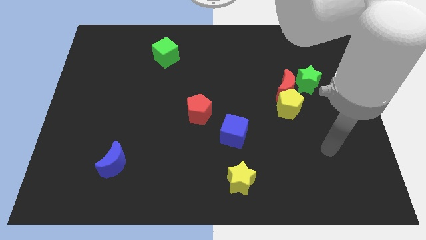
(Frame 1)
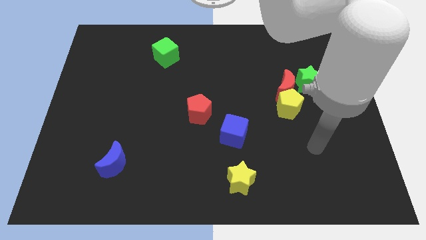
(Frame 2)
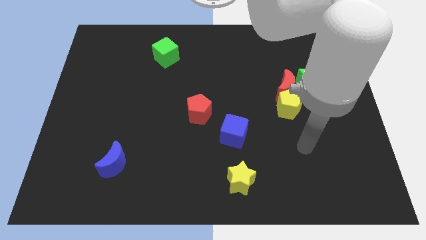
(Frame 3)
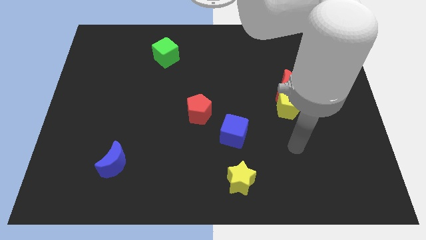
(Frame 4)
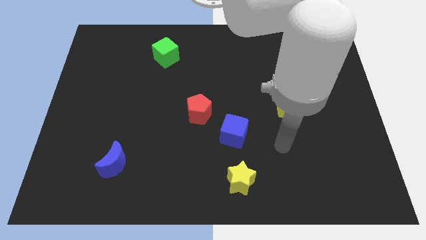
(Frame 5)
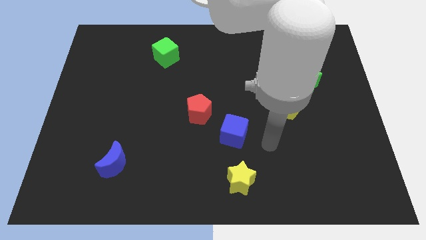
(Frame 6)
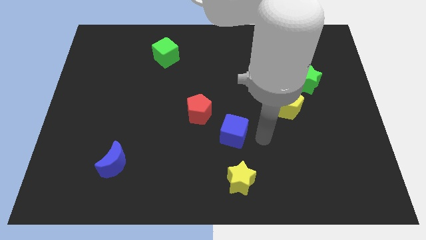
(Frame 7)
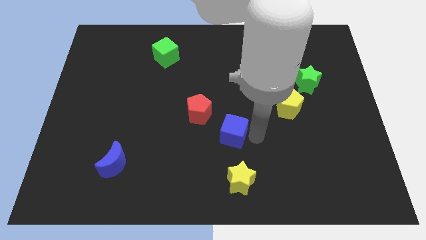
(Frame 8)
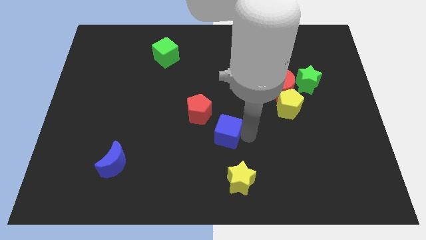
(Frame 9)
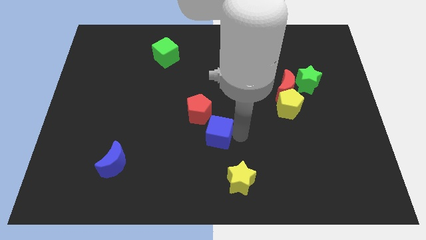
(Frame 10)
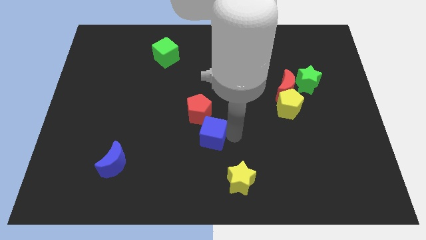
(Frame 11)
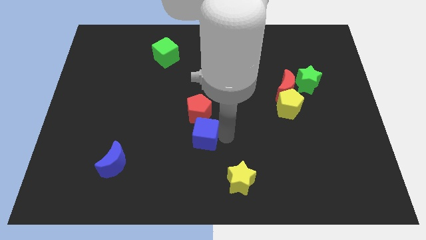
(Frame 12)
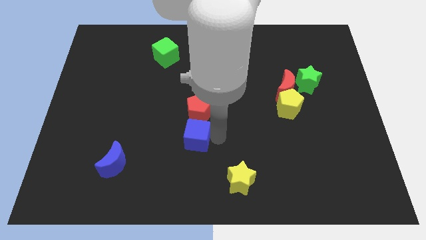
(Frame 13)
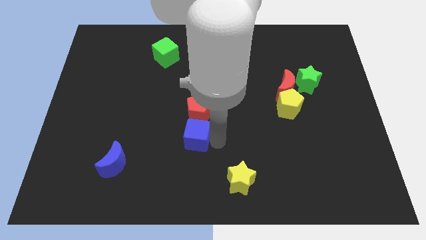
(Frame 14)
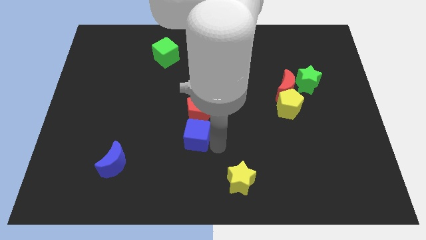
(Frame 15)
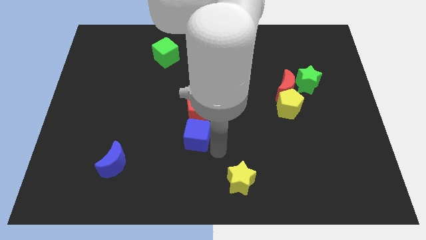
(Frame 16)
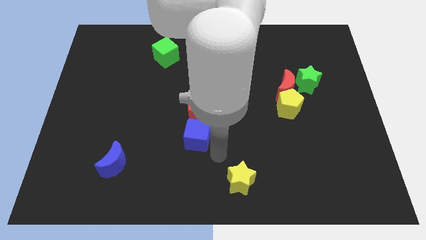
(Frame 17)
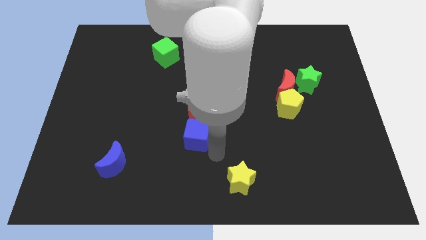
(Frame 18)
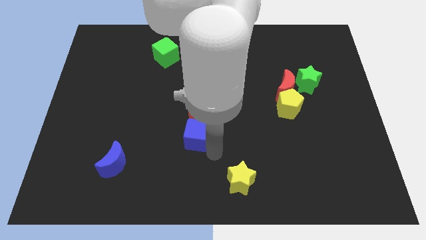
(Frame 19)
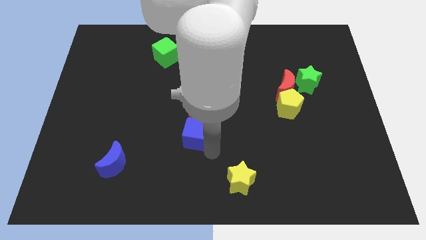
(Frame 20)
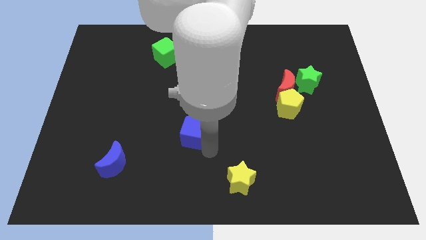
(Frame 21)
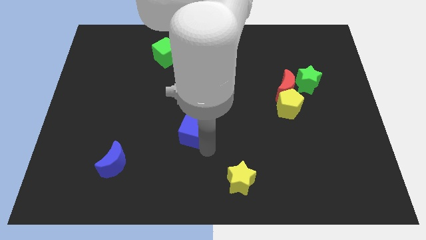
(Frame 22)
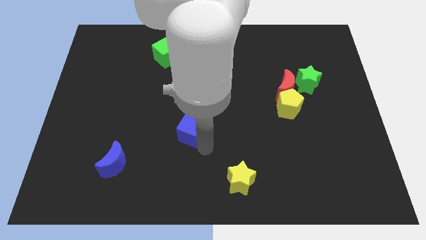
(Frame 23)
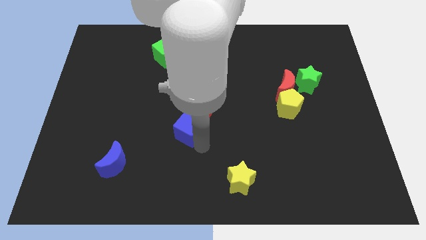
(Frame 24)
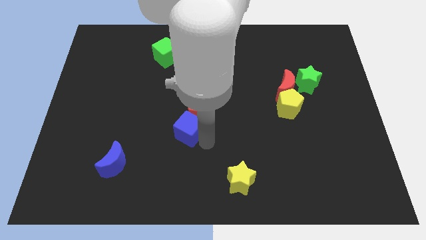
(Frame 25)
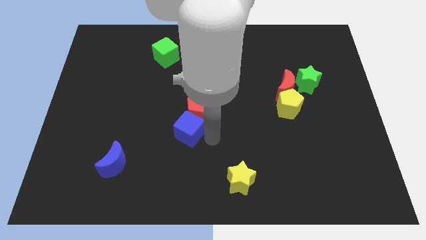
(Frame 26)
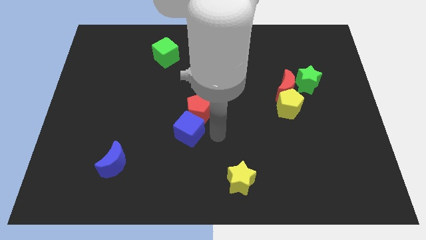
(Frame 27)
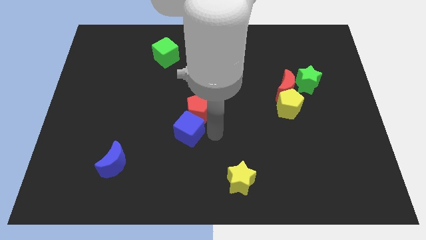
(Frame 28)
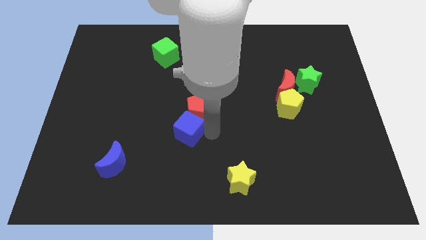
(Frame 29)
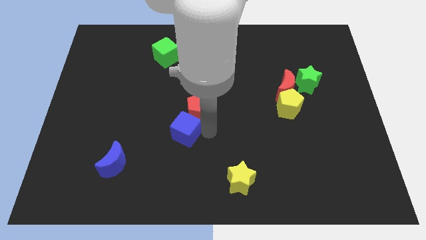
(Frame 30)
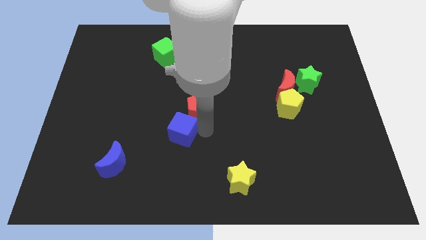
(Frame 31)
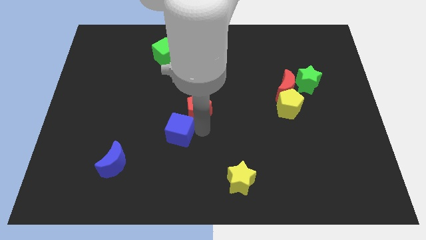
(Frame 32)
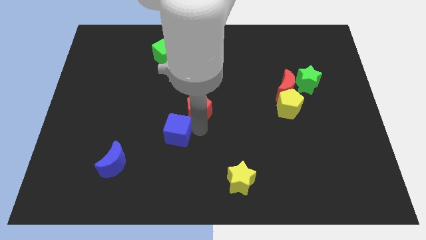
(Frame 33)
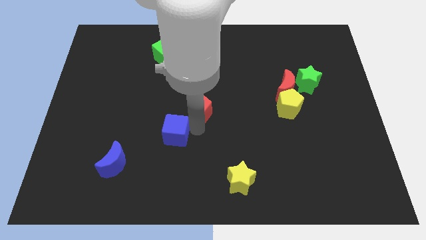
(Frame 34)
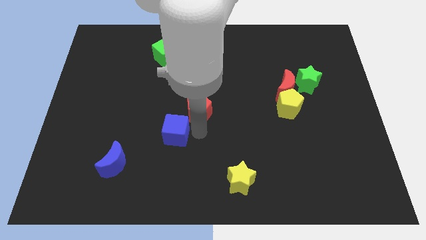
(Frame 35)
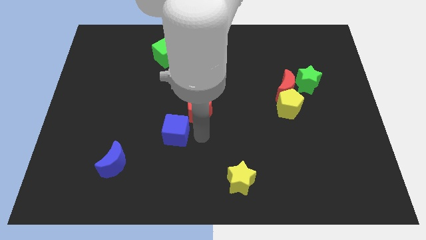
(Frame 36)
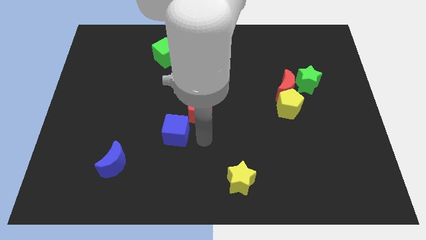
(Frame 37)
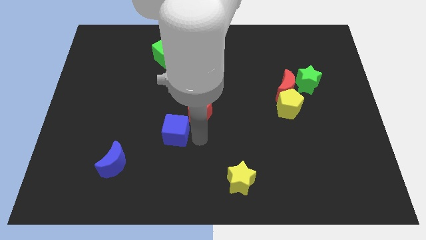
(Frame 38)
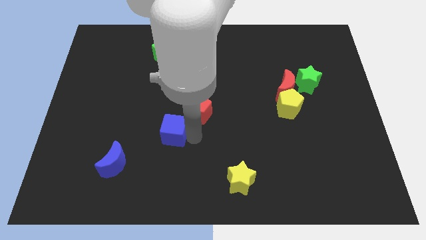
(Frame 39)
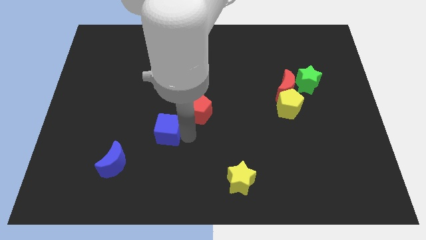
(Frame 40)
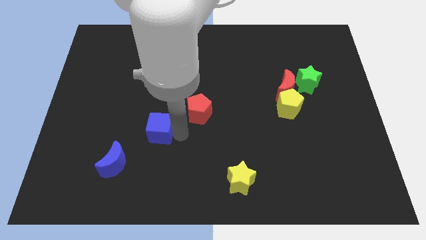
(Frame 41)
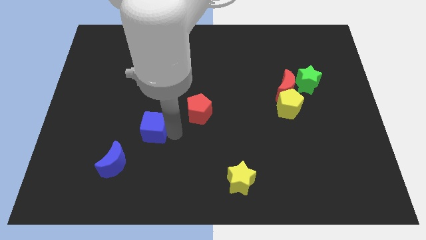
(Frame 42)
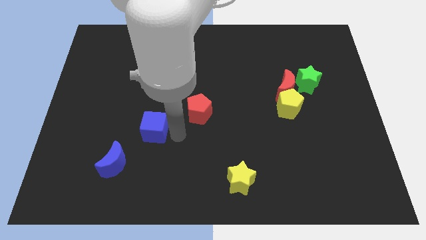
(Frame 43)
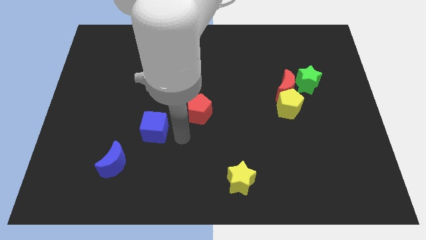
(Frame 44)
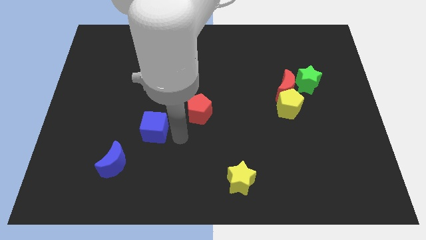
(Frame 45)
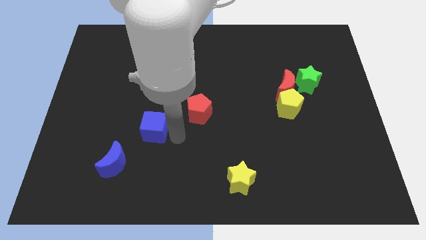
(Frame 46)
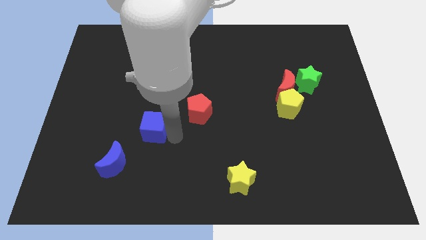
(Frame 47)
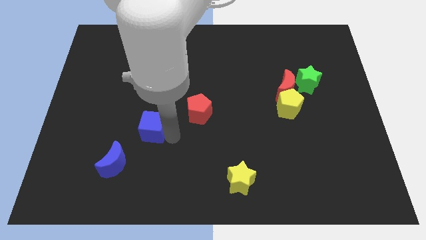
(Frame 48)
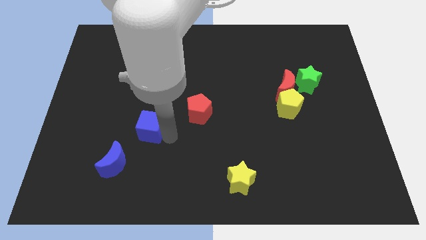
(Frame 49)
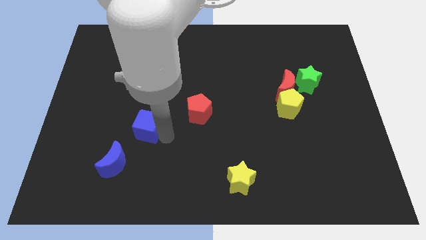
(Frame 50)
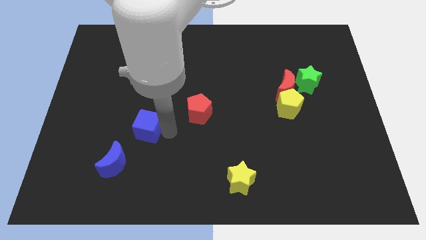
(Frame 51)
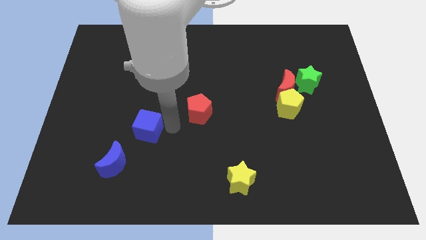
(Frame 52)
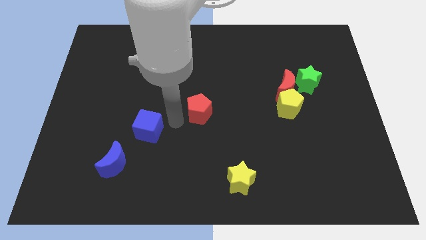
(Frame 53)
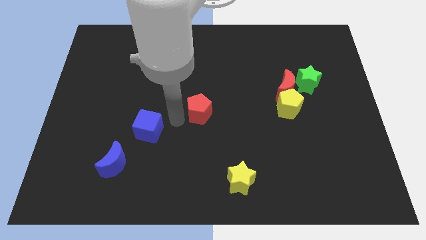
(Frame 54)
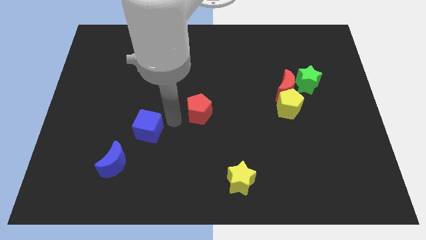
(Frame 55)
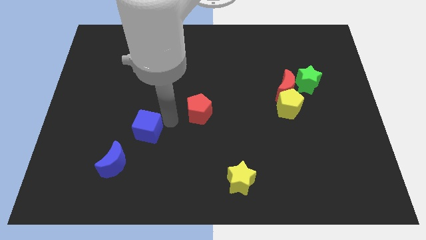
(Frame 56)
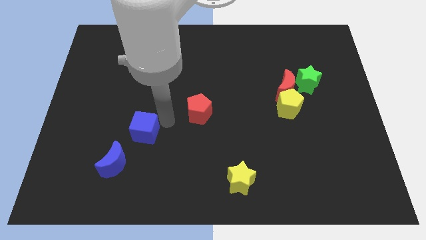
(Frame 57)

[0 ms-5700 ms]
push the blue cube left

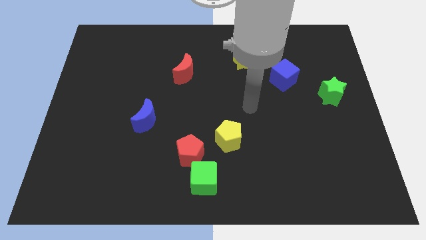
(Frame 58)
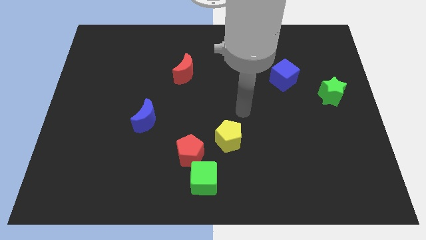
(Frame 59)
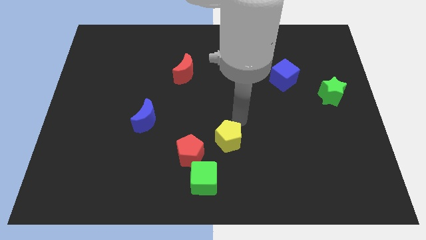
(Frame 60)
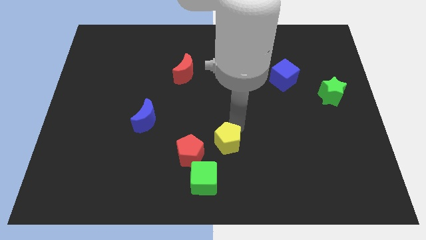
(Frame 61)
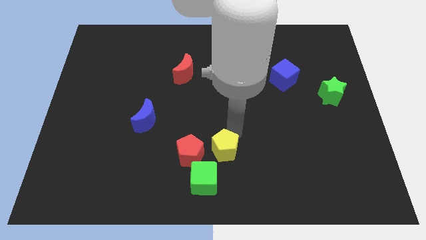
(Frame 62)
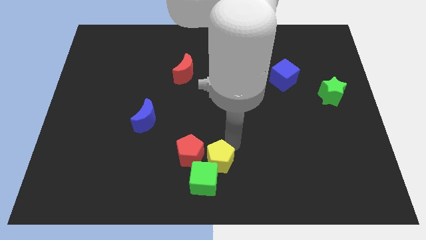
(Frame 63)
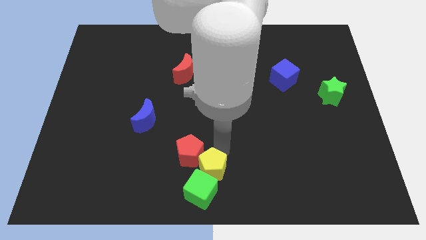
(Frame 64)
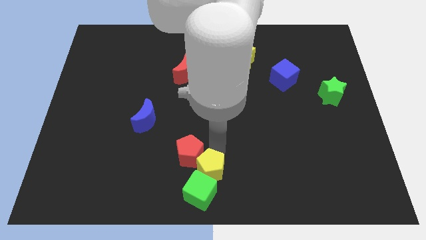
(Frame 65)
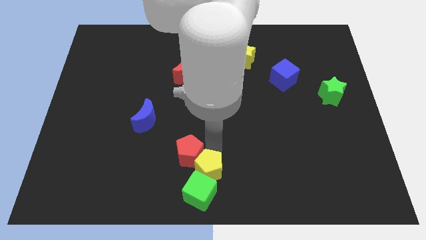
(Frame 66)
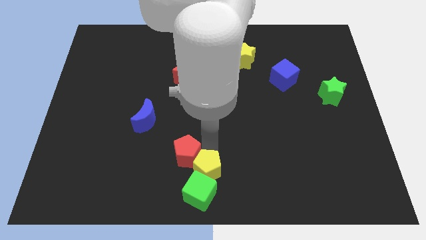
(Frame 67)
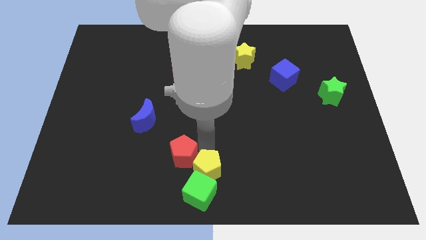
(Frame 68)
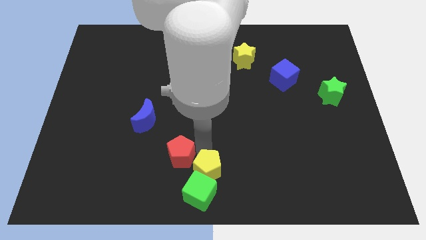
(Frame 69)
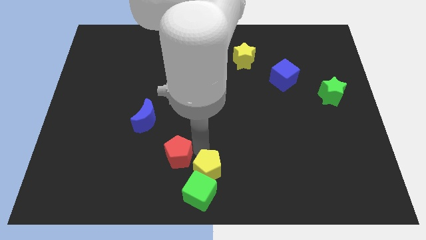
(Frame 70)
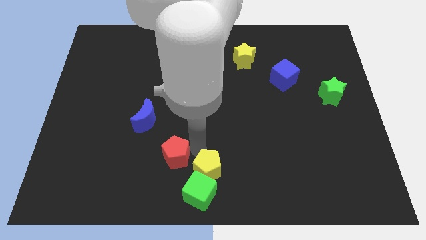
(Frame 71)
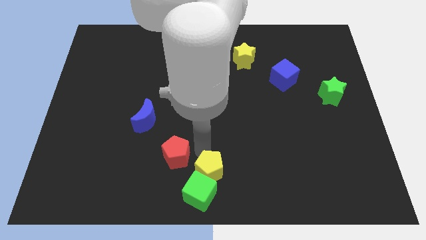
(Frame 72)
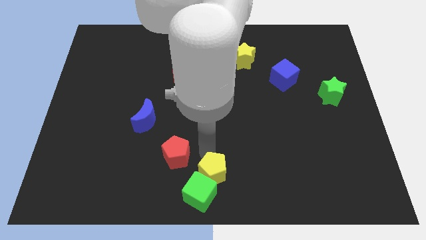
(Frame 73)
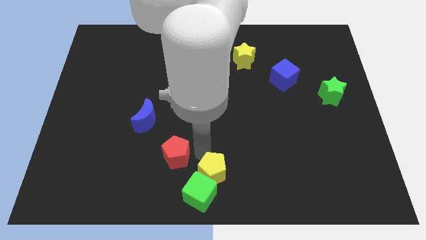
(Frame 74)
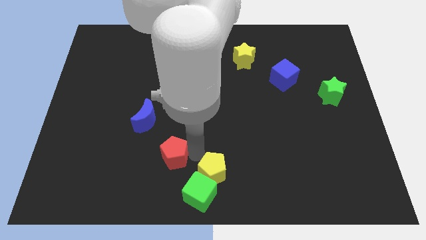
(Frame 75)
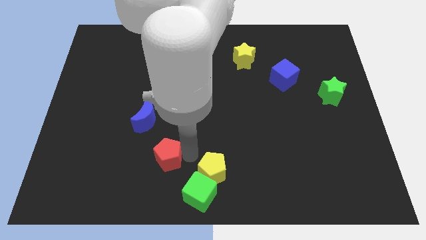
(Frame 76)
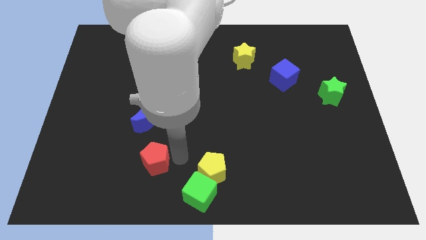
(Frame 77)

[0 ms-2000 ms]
move the red pentagon slightly left

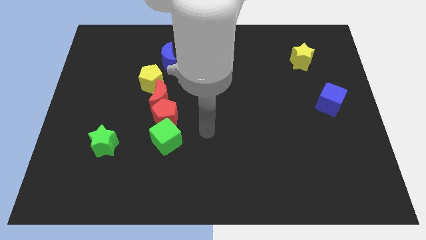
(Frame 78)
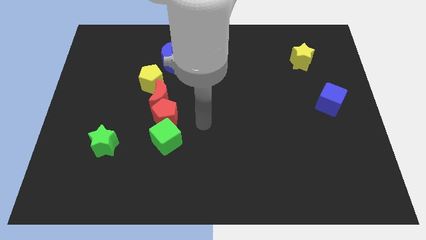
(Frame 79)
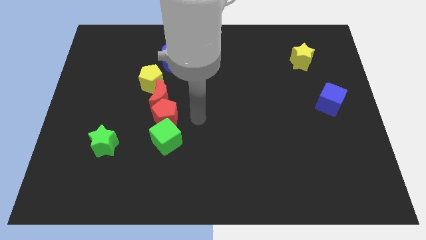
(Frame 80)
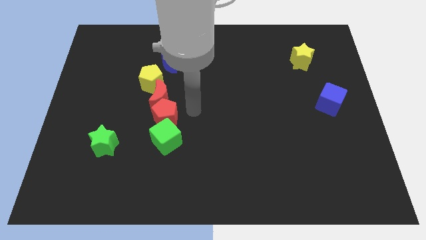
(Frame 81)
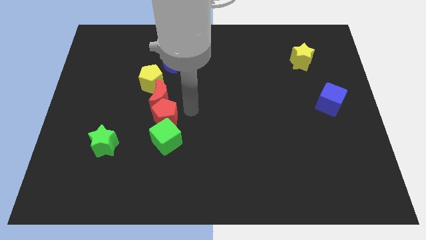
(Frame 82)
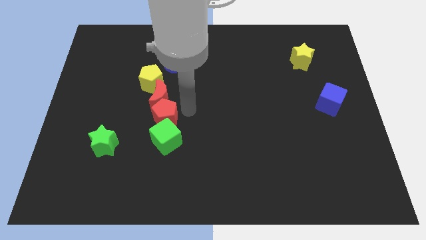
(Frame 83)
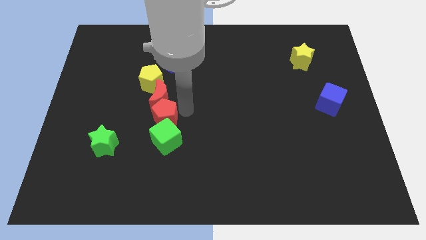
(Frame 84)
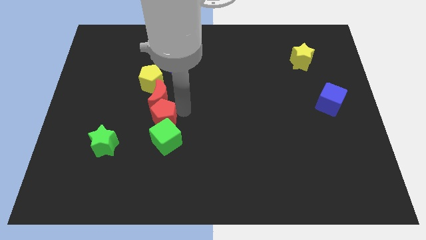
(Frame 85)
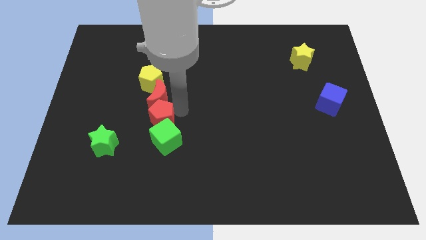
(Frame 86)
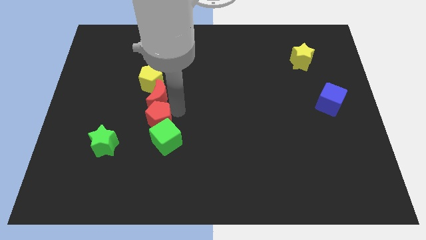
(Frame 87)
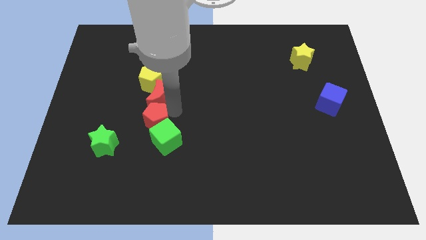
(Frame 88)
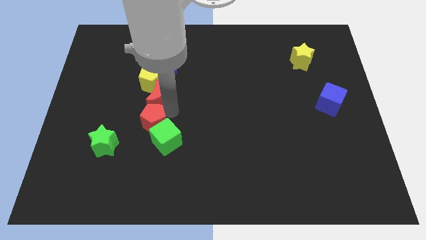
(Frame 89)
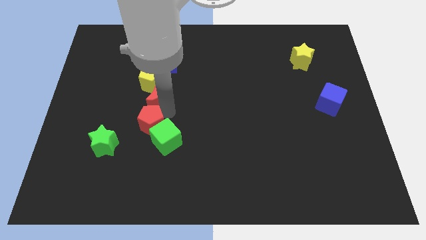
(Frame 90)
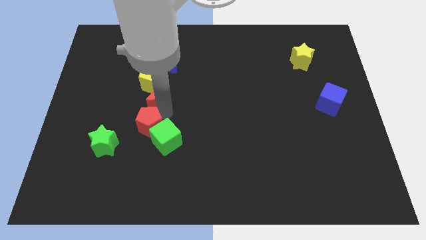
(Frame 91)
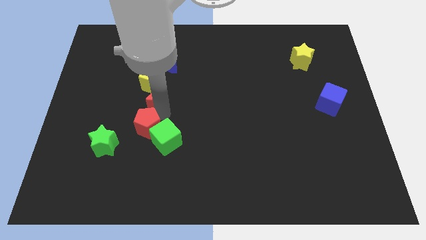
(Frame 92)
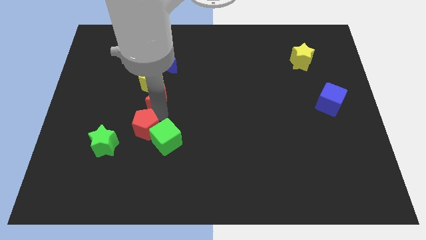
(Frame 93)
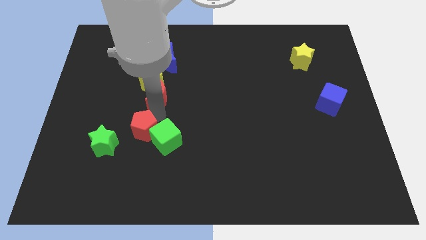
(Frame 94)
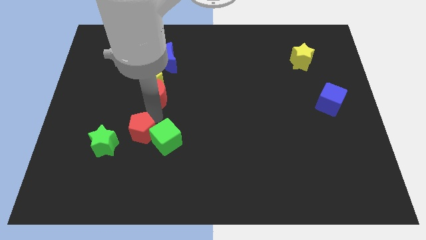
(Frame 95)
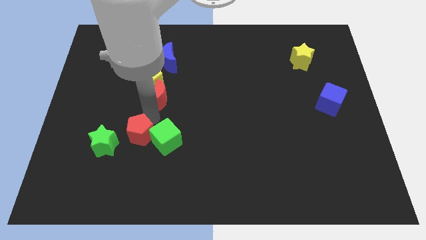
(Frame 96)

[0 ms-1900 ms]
move the red pentagon downwards and then left a bit
